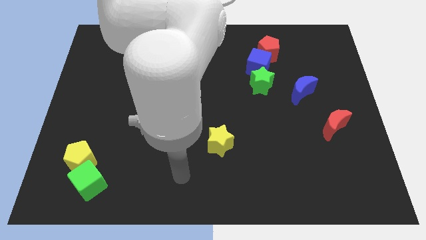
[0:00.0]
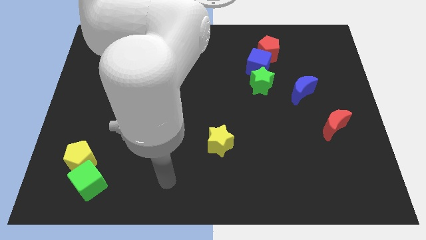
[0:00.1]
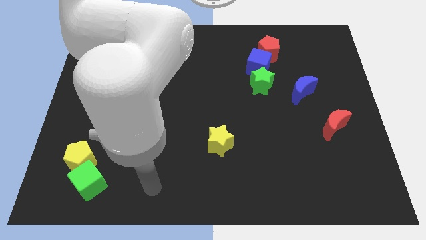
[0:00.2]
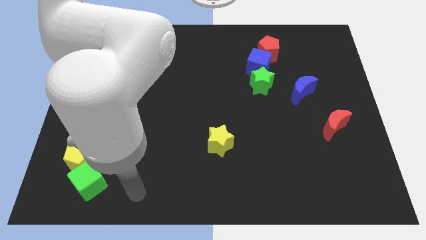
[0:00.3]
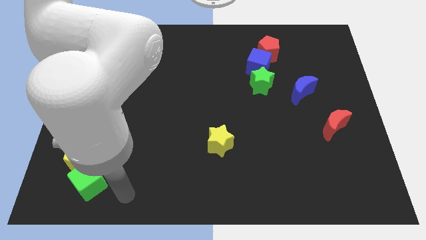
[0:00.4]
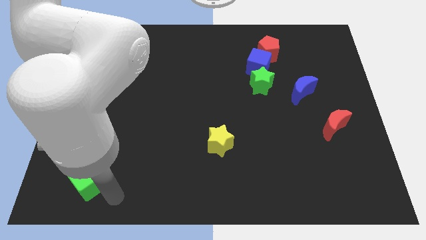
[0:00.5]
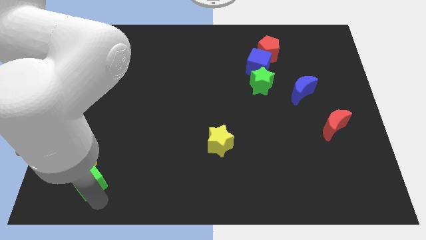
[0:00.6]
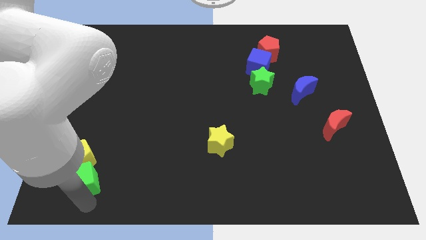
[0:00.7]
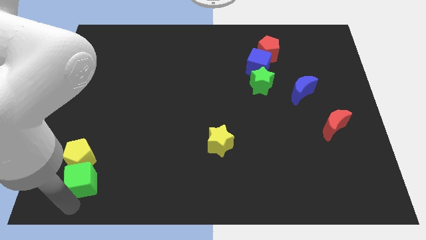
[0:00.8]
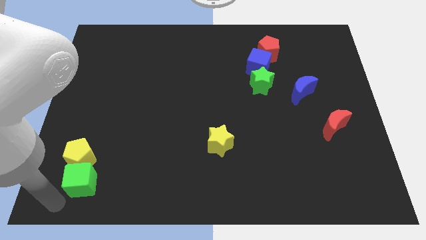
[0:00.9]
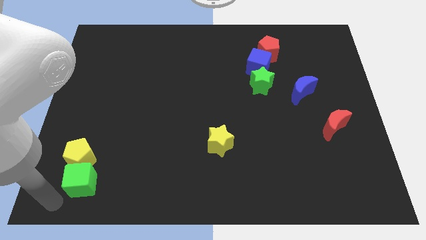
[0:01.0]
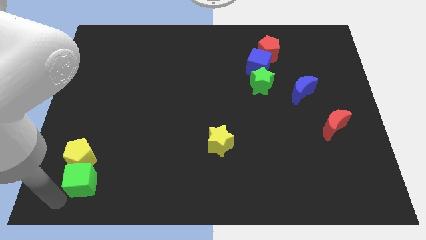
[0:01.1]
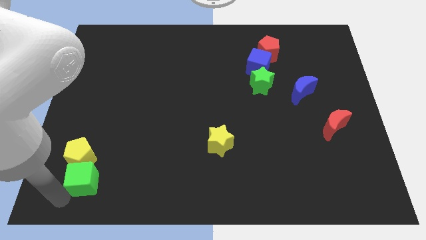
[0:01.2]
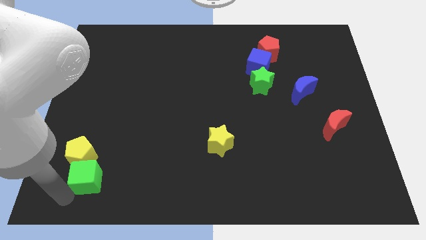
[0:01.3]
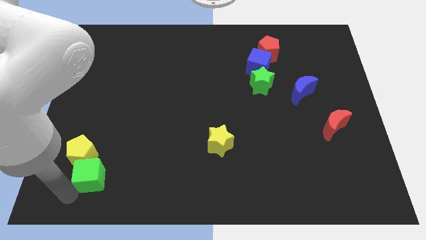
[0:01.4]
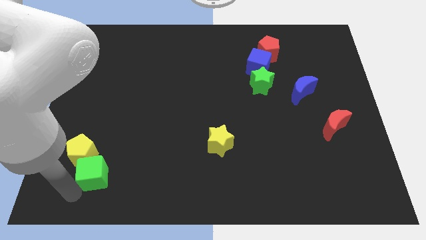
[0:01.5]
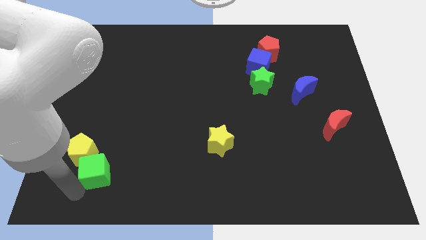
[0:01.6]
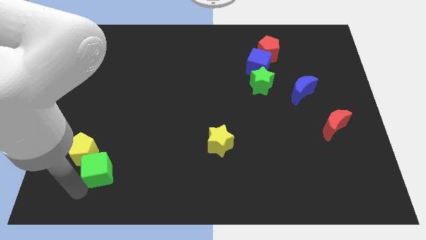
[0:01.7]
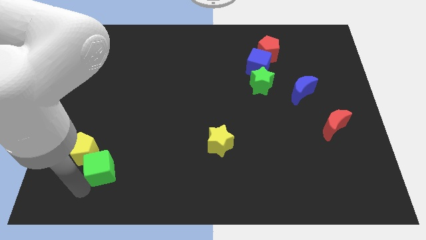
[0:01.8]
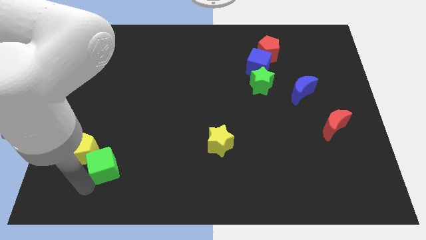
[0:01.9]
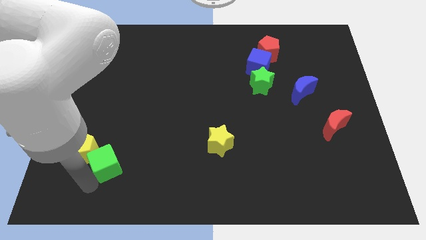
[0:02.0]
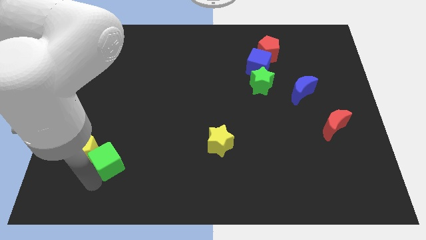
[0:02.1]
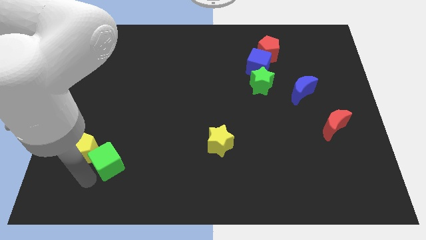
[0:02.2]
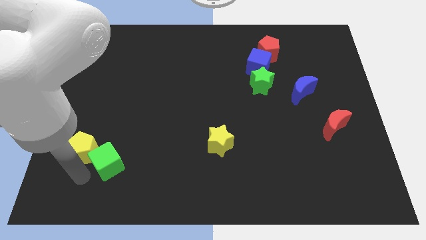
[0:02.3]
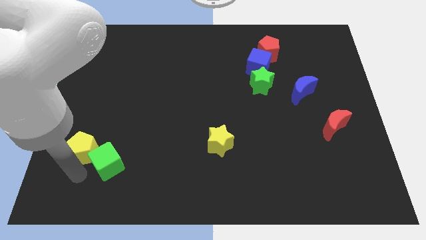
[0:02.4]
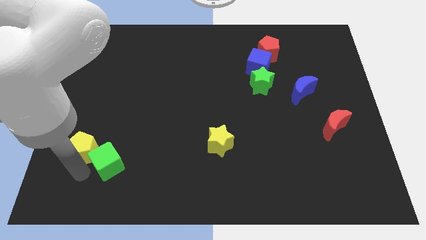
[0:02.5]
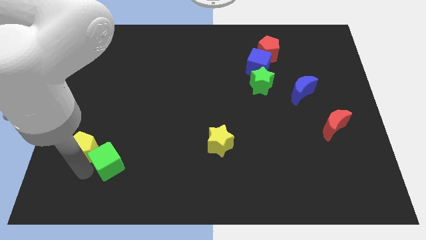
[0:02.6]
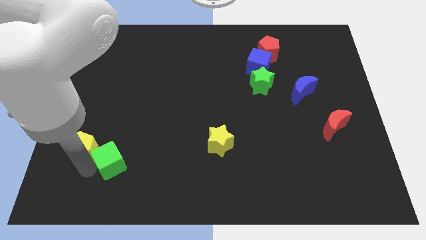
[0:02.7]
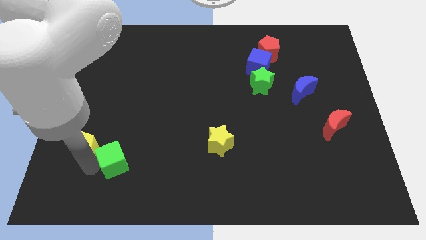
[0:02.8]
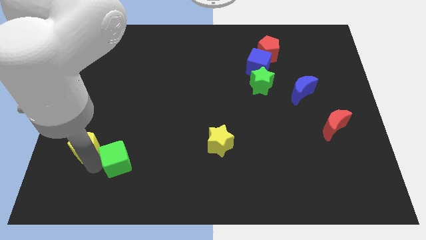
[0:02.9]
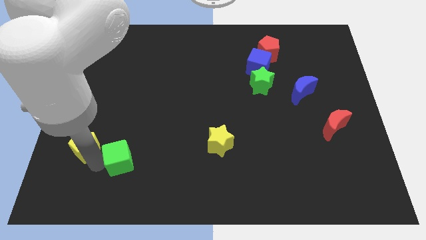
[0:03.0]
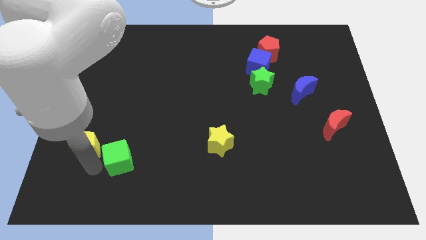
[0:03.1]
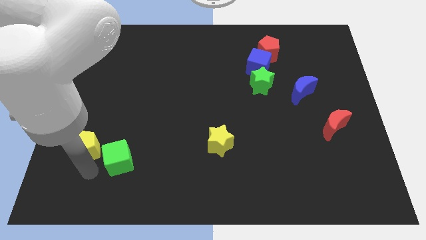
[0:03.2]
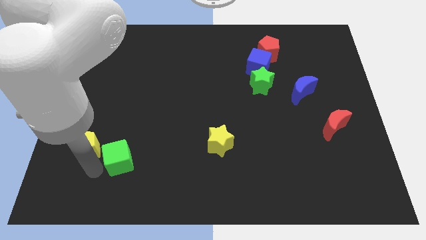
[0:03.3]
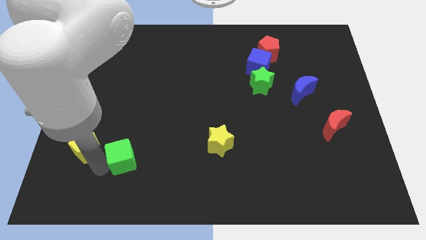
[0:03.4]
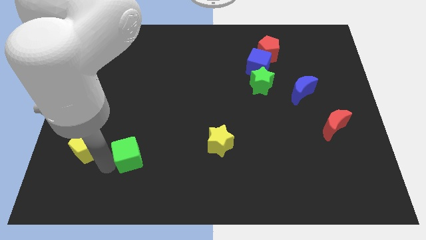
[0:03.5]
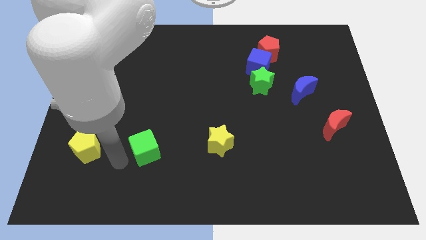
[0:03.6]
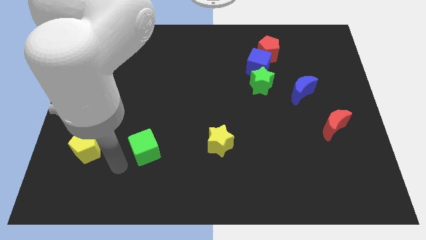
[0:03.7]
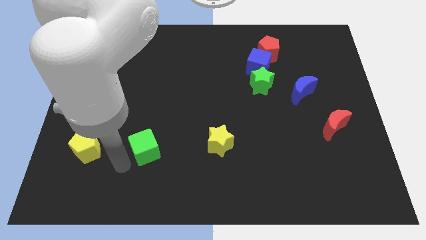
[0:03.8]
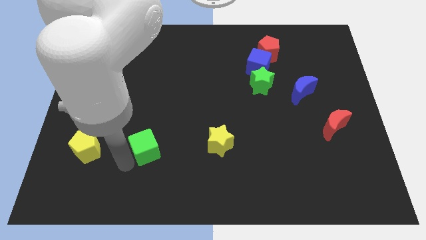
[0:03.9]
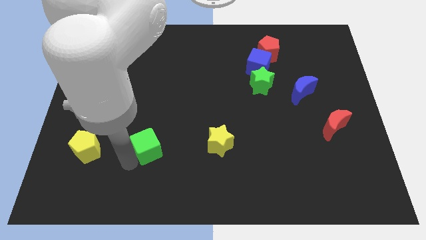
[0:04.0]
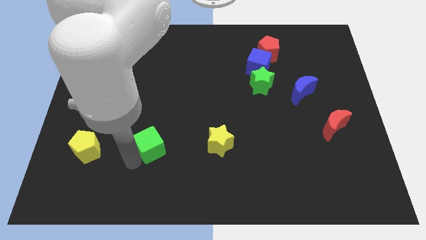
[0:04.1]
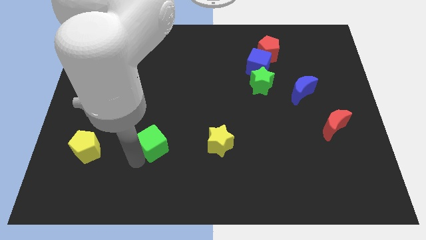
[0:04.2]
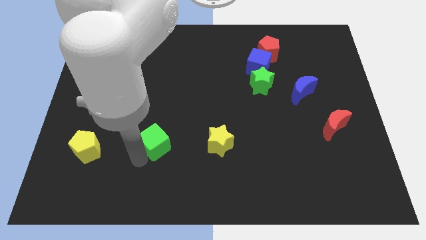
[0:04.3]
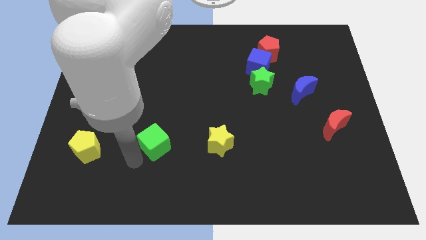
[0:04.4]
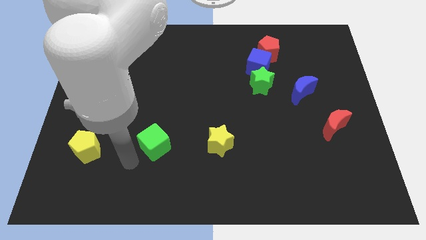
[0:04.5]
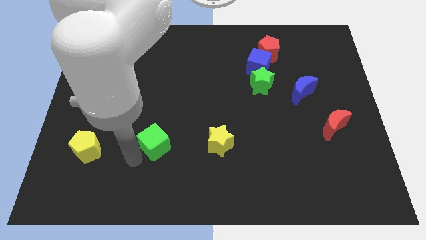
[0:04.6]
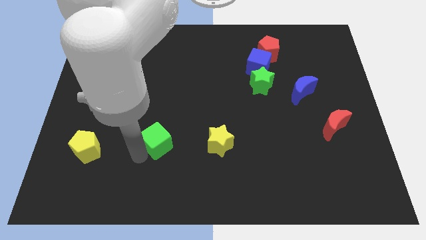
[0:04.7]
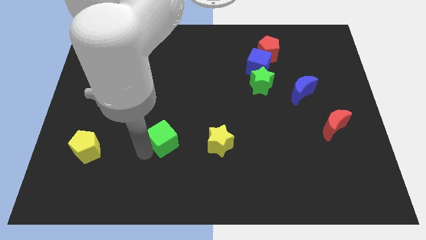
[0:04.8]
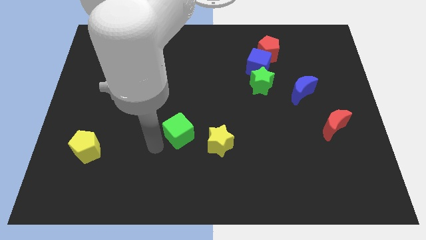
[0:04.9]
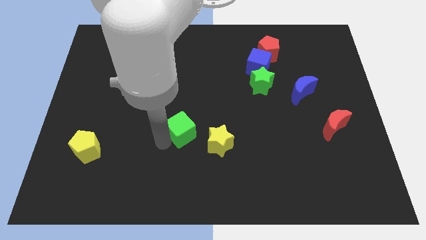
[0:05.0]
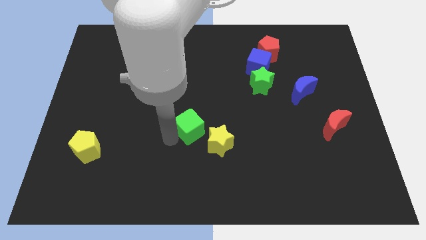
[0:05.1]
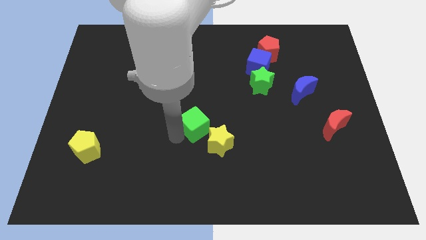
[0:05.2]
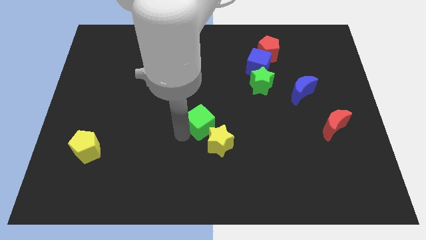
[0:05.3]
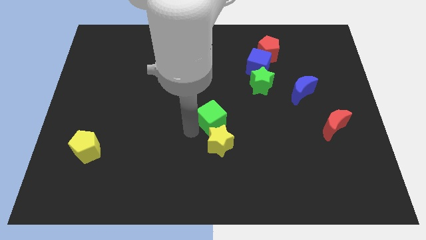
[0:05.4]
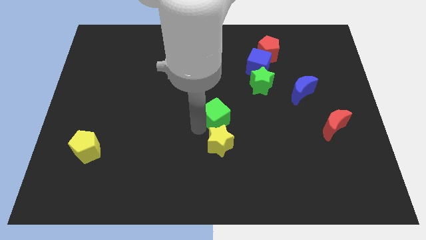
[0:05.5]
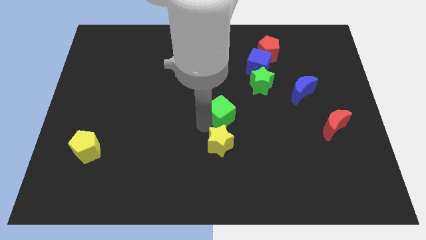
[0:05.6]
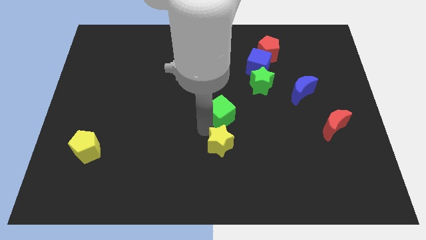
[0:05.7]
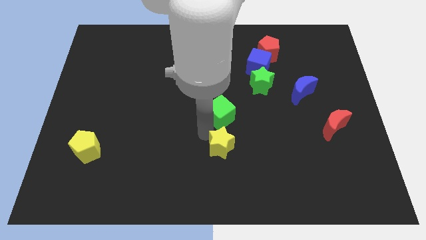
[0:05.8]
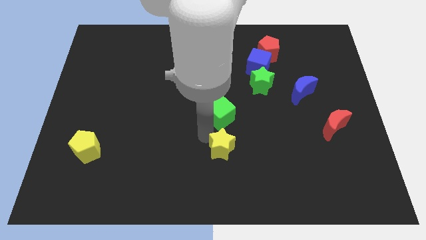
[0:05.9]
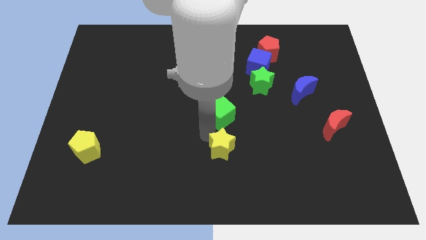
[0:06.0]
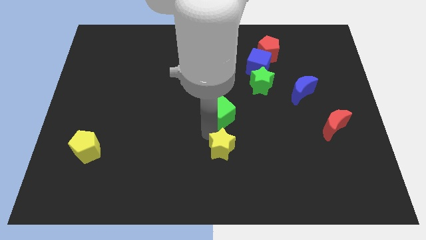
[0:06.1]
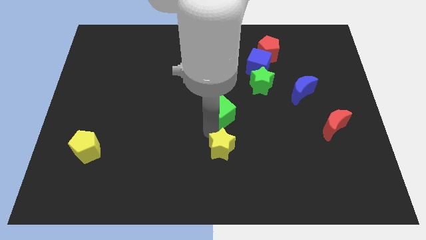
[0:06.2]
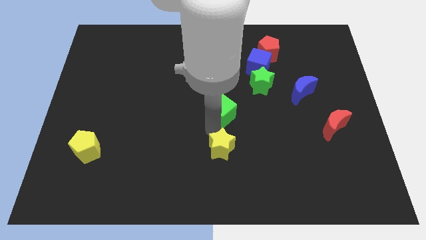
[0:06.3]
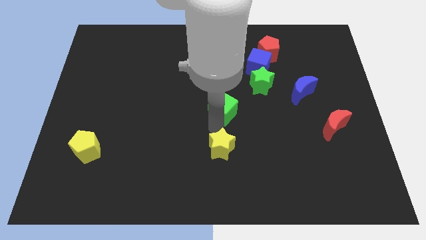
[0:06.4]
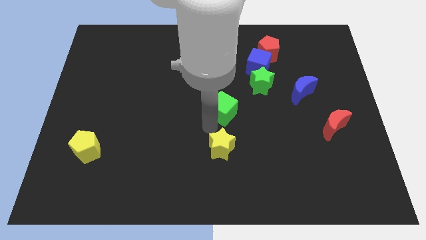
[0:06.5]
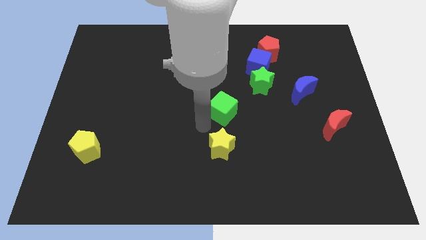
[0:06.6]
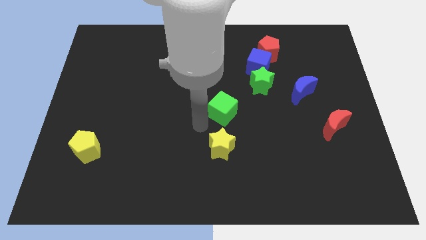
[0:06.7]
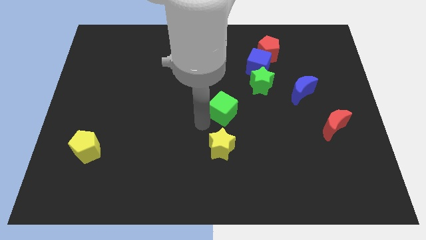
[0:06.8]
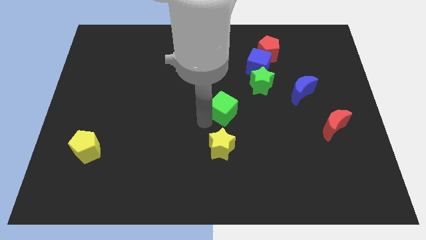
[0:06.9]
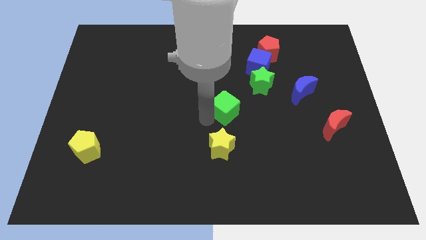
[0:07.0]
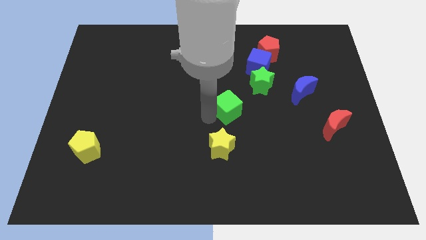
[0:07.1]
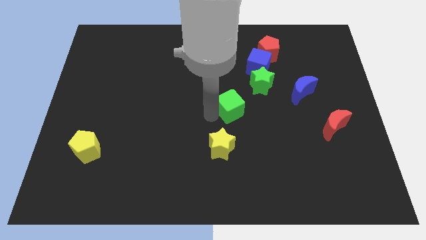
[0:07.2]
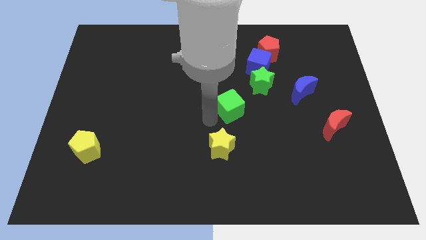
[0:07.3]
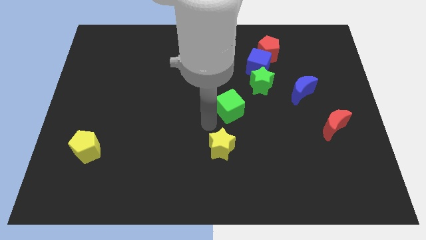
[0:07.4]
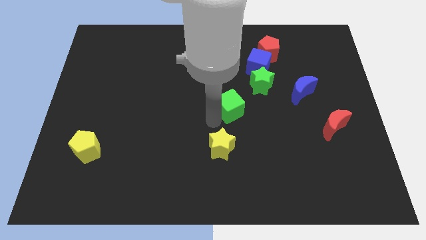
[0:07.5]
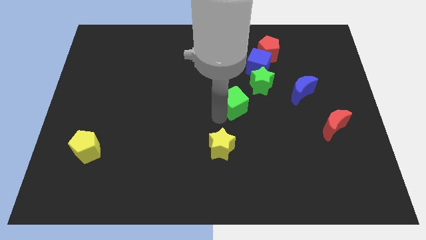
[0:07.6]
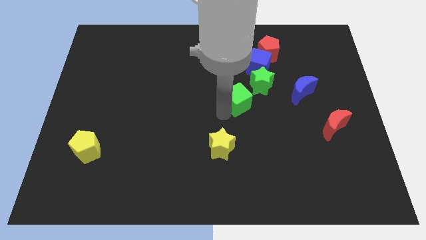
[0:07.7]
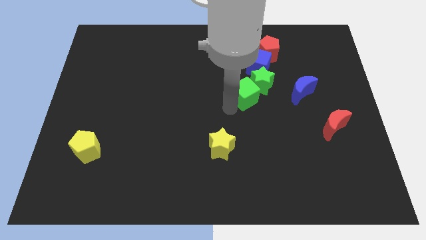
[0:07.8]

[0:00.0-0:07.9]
move the green cube next to the green star

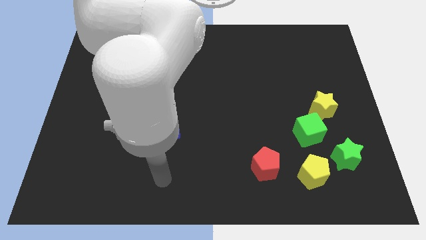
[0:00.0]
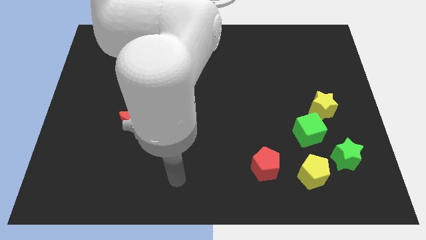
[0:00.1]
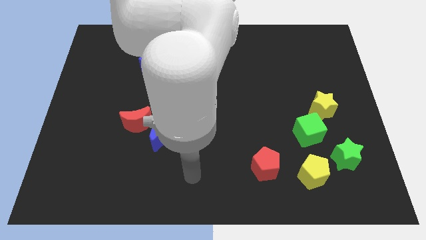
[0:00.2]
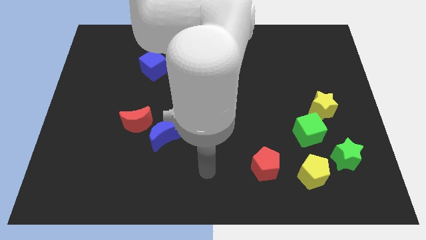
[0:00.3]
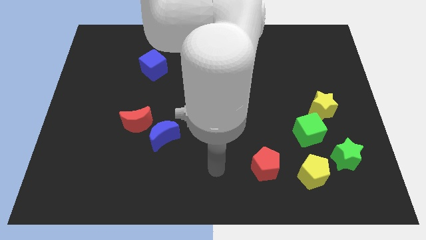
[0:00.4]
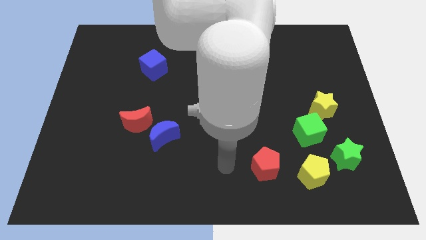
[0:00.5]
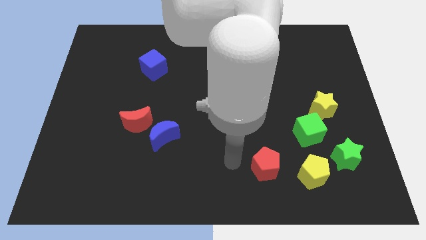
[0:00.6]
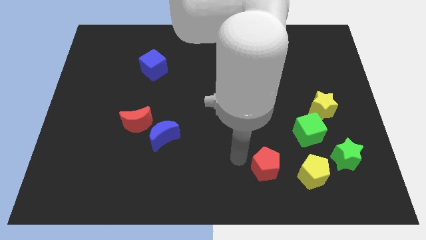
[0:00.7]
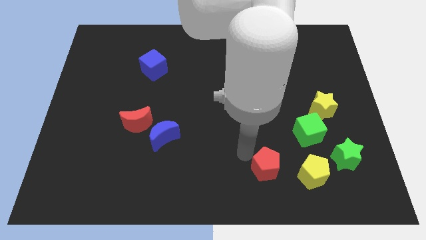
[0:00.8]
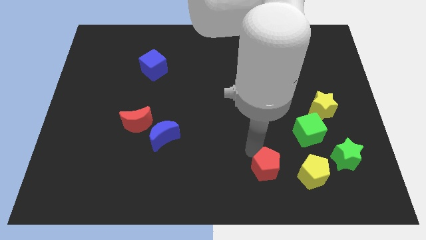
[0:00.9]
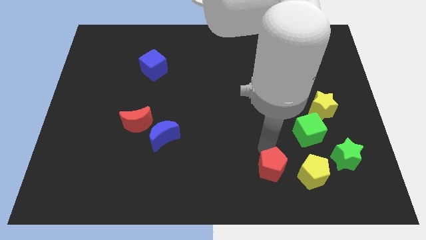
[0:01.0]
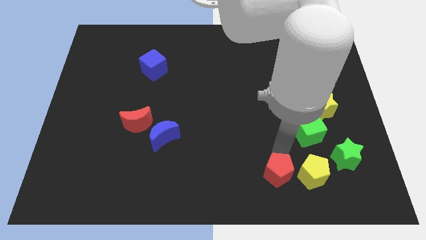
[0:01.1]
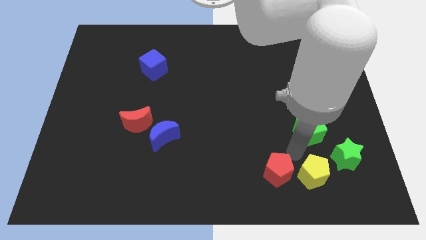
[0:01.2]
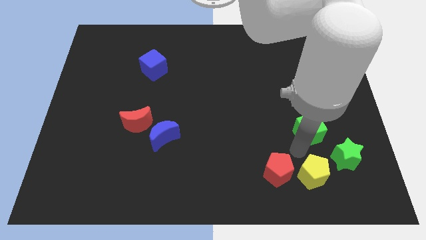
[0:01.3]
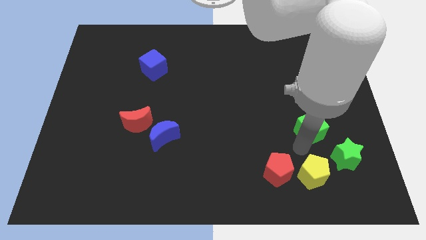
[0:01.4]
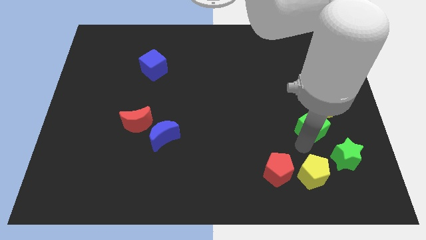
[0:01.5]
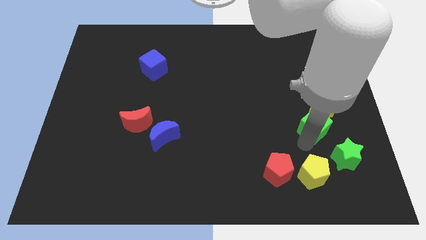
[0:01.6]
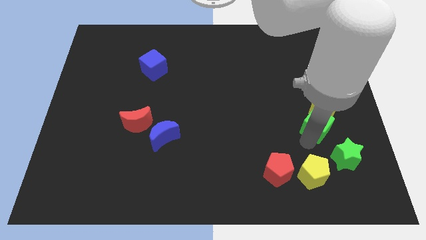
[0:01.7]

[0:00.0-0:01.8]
push the green cube towards the yellow star
